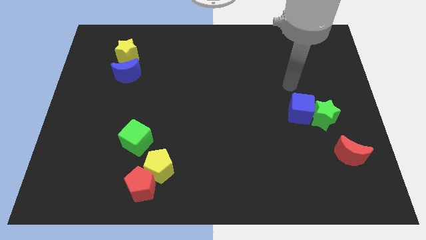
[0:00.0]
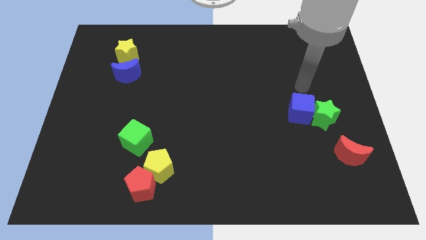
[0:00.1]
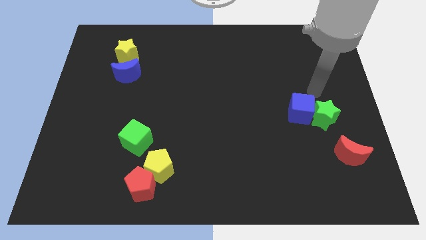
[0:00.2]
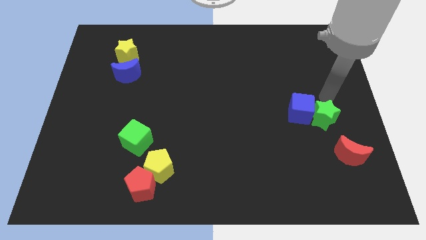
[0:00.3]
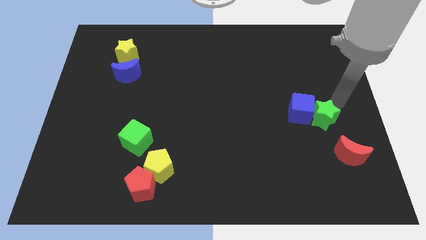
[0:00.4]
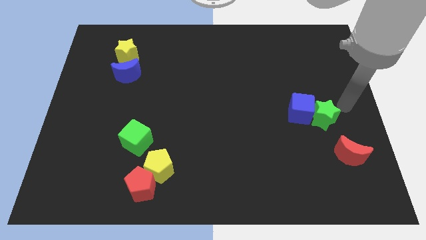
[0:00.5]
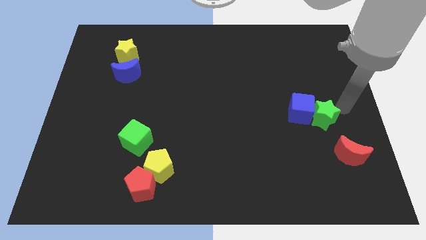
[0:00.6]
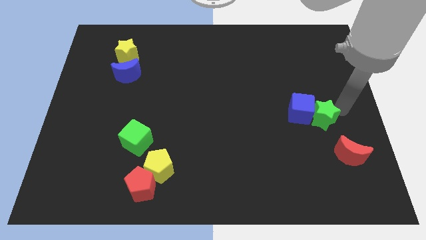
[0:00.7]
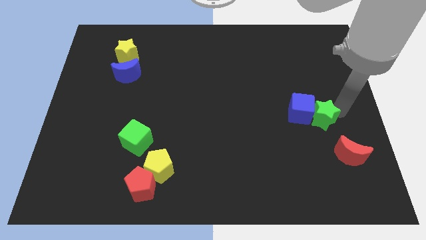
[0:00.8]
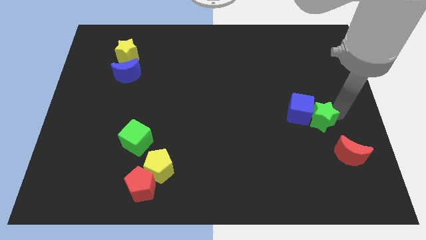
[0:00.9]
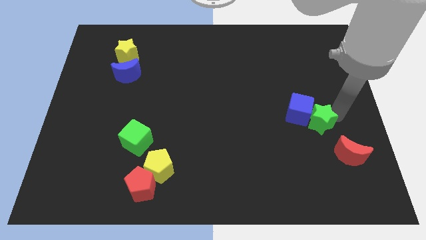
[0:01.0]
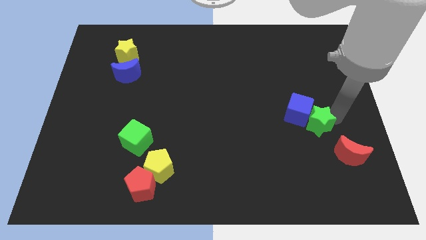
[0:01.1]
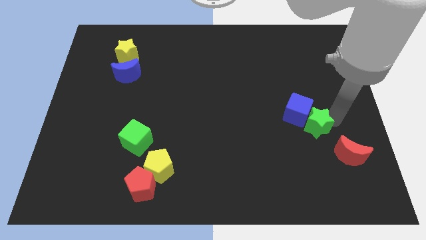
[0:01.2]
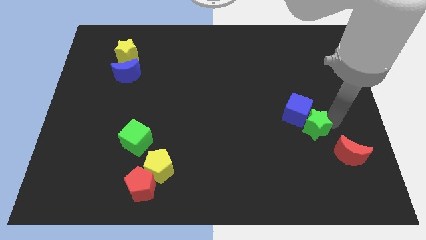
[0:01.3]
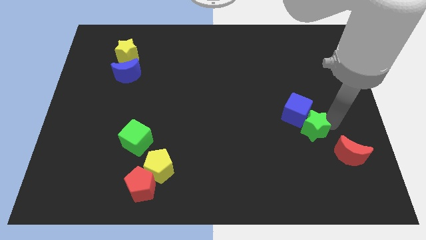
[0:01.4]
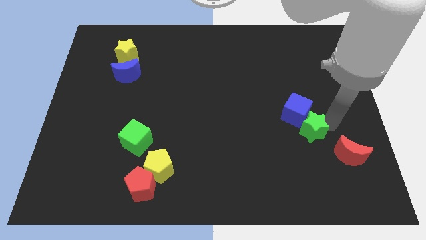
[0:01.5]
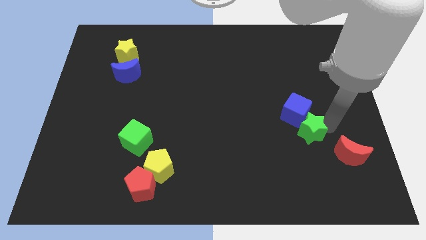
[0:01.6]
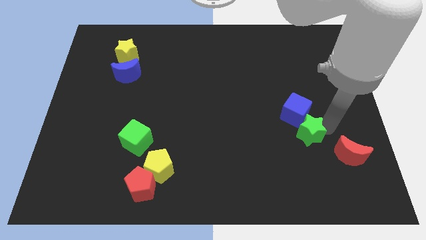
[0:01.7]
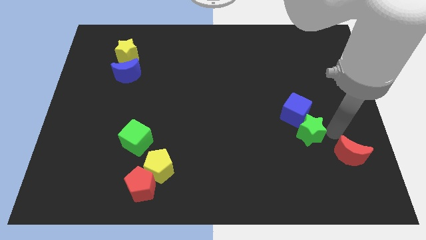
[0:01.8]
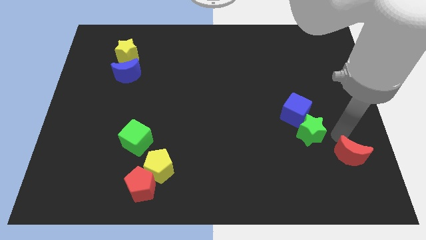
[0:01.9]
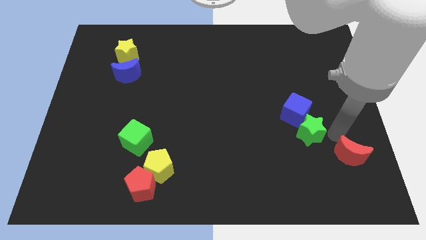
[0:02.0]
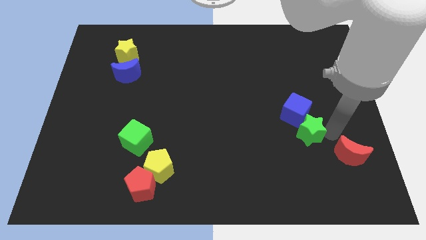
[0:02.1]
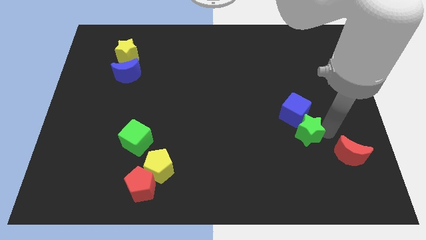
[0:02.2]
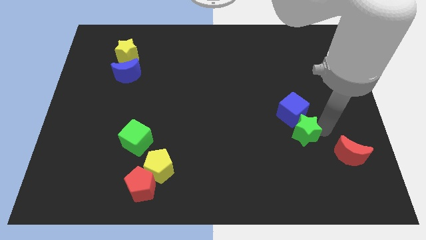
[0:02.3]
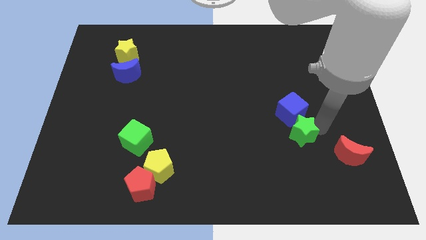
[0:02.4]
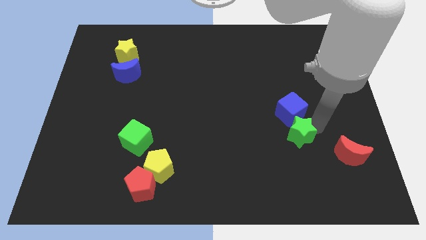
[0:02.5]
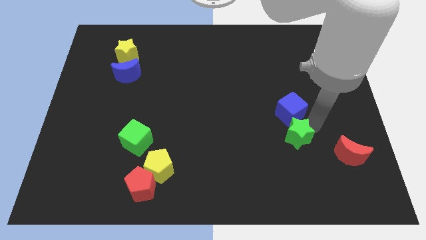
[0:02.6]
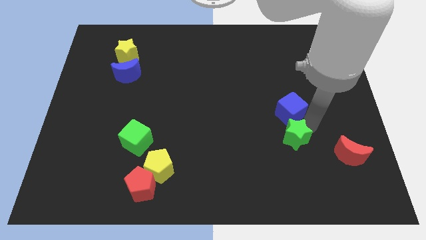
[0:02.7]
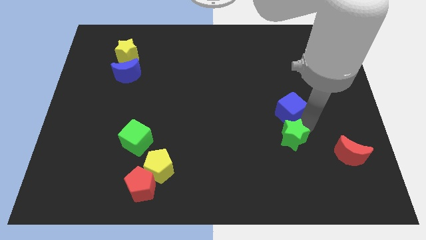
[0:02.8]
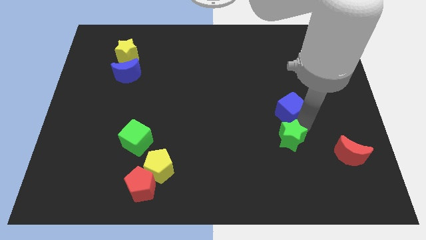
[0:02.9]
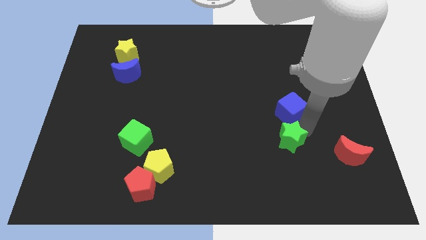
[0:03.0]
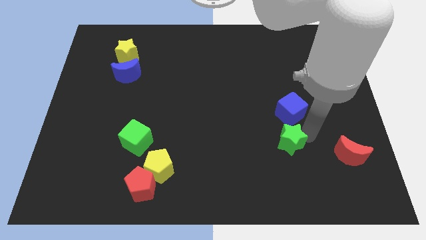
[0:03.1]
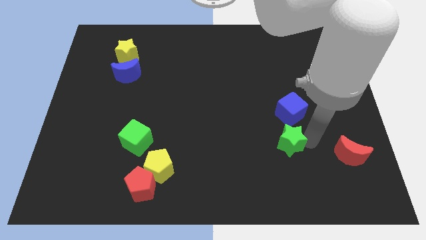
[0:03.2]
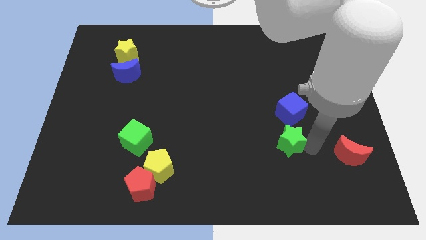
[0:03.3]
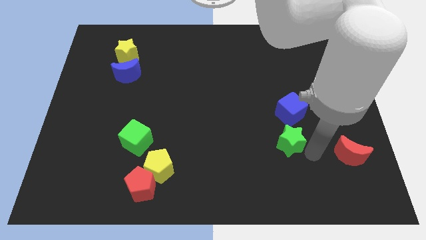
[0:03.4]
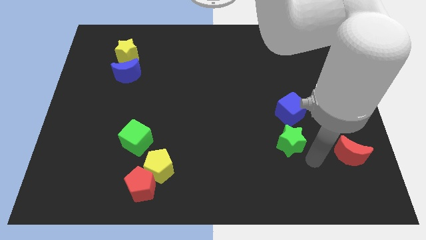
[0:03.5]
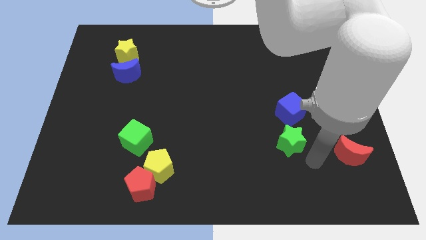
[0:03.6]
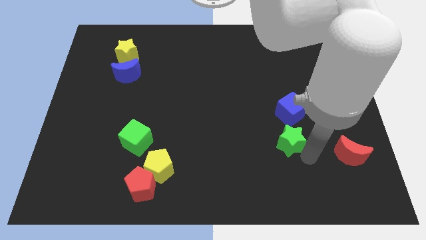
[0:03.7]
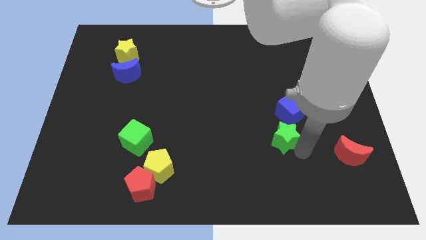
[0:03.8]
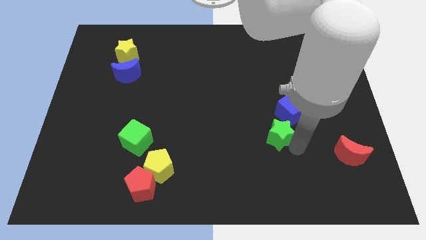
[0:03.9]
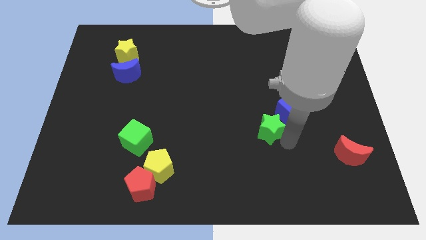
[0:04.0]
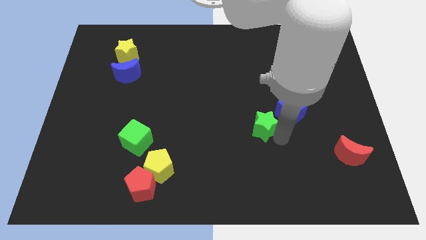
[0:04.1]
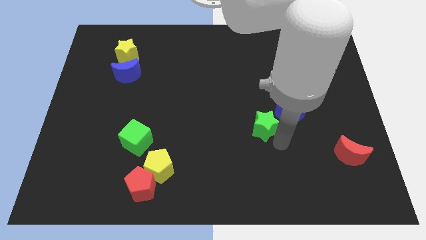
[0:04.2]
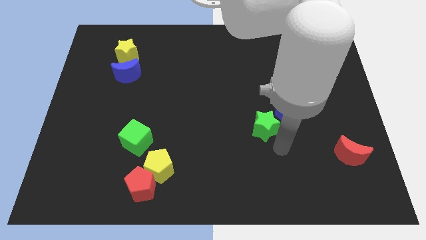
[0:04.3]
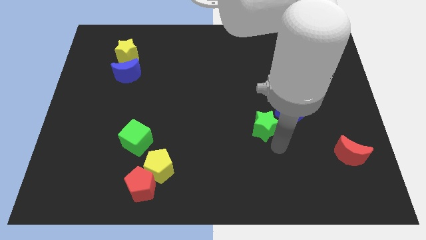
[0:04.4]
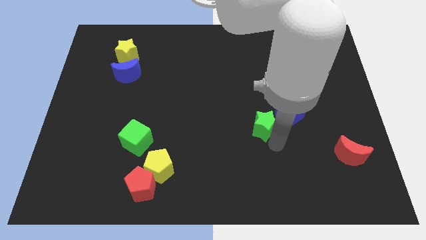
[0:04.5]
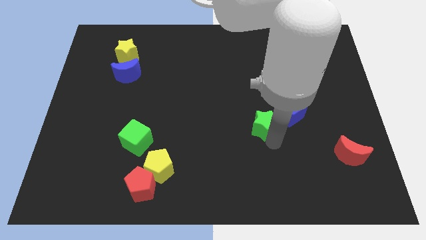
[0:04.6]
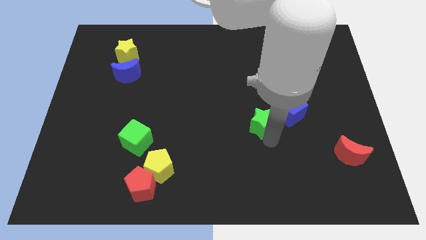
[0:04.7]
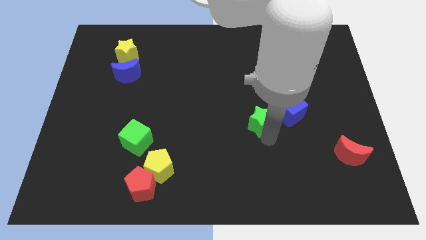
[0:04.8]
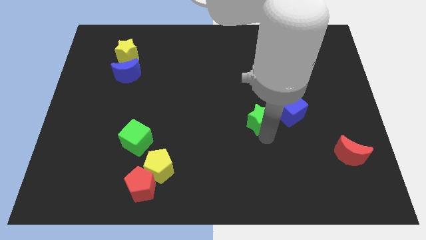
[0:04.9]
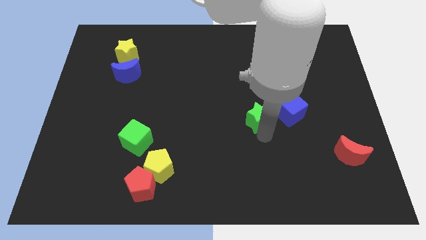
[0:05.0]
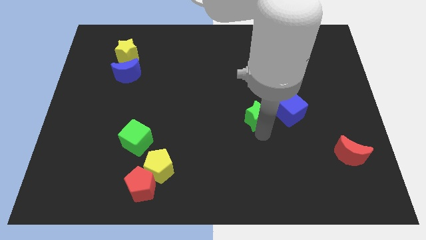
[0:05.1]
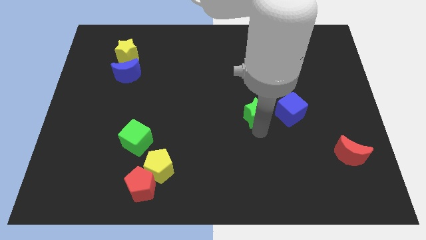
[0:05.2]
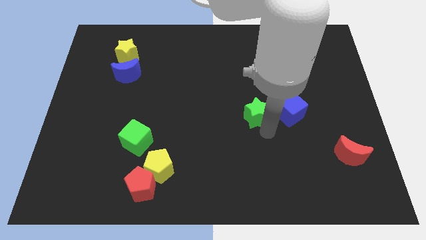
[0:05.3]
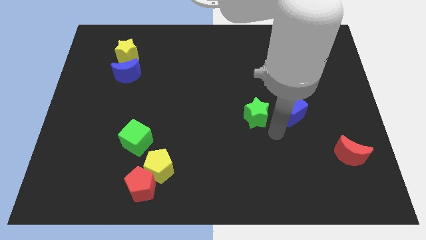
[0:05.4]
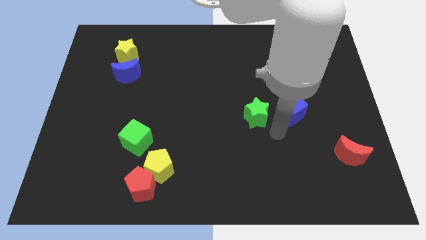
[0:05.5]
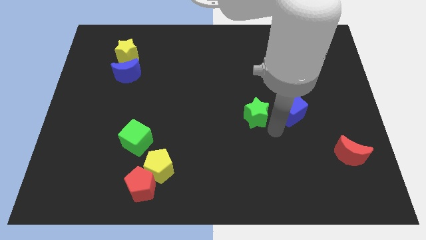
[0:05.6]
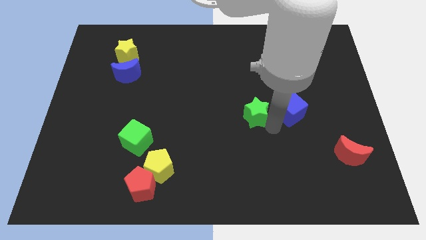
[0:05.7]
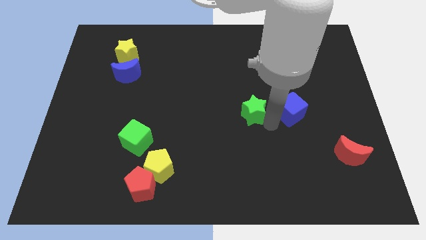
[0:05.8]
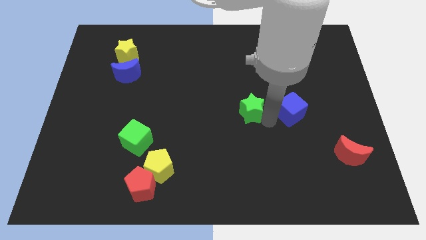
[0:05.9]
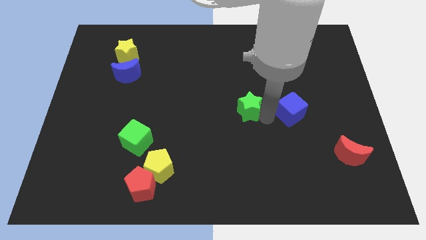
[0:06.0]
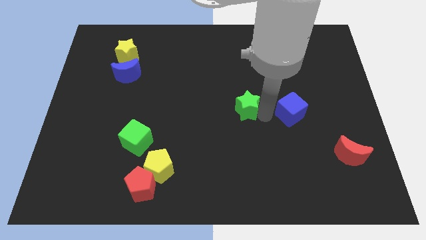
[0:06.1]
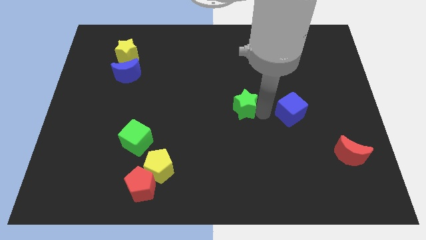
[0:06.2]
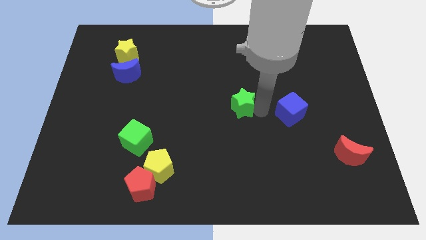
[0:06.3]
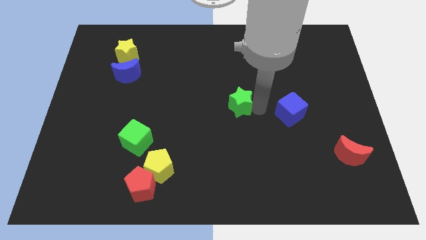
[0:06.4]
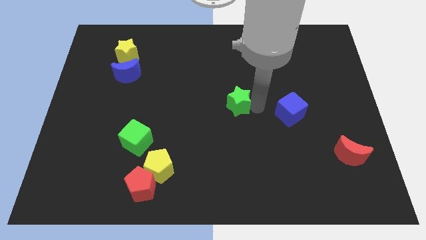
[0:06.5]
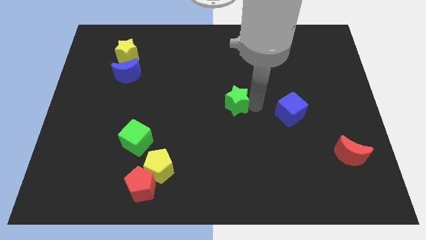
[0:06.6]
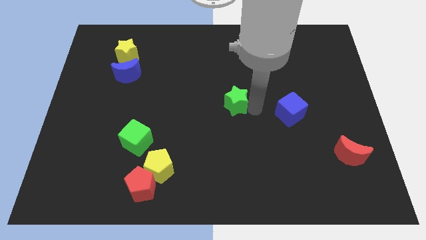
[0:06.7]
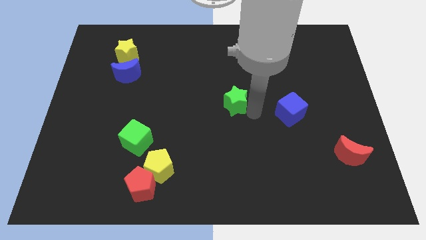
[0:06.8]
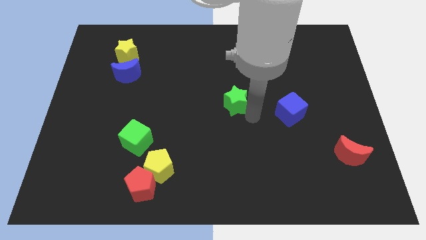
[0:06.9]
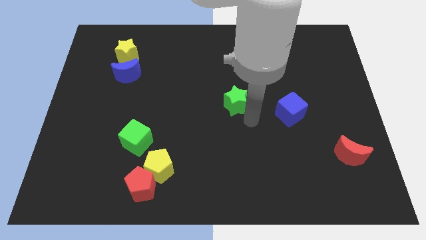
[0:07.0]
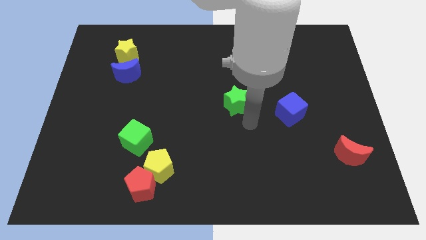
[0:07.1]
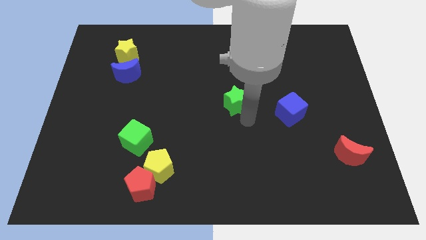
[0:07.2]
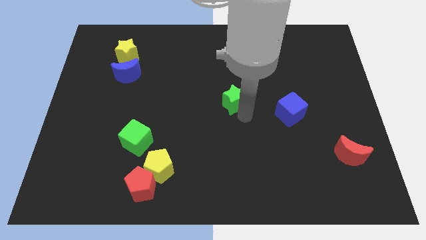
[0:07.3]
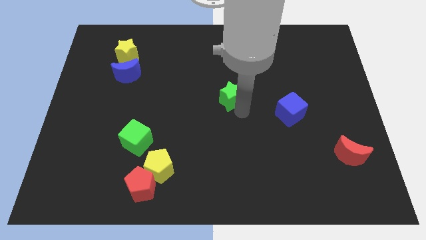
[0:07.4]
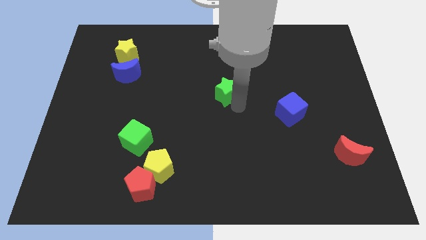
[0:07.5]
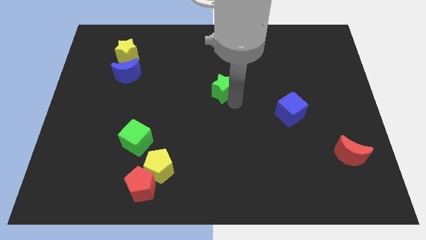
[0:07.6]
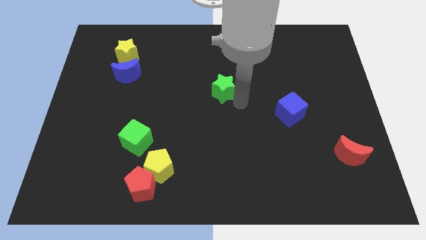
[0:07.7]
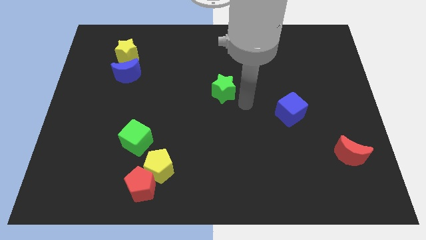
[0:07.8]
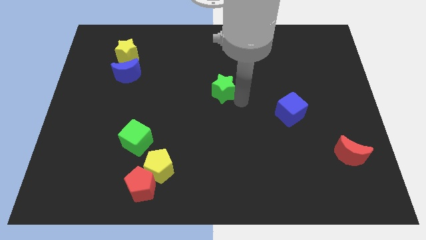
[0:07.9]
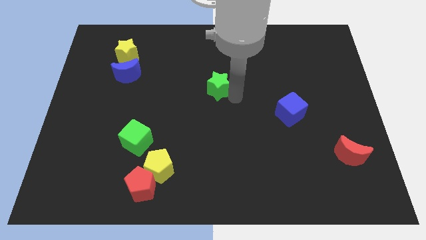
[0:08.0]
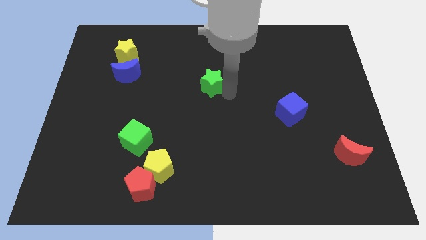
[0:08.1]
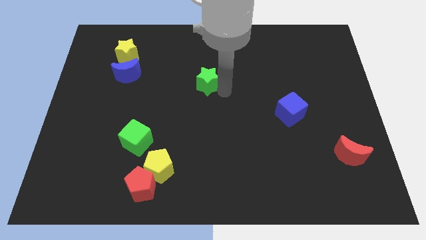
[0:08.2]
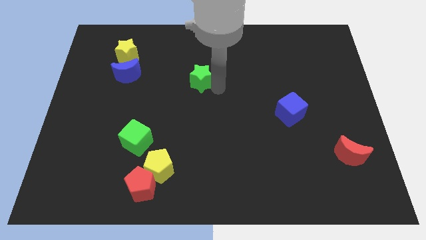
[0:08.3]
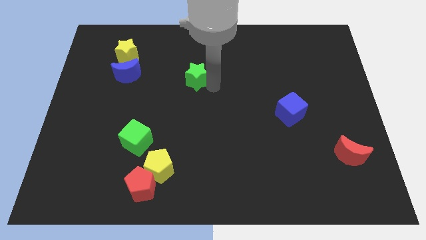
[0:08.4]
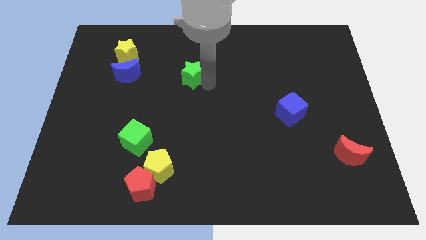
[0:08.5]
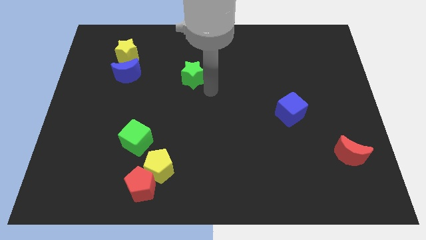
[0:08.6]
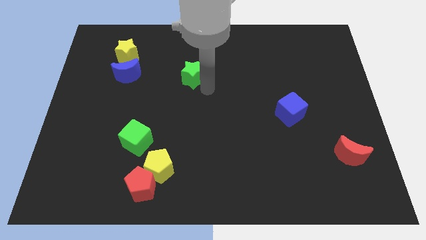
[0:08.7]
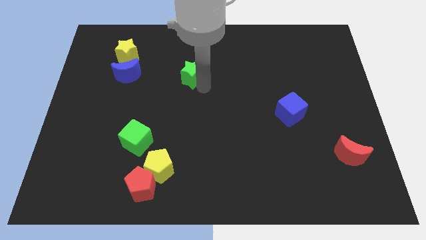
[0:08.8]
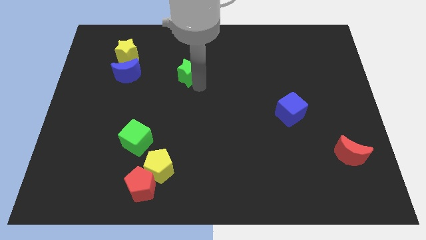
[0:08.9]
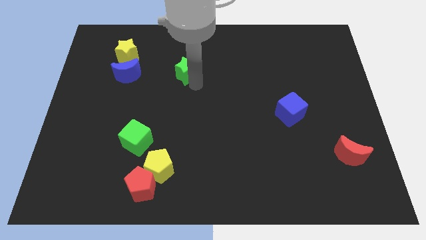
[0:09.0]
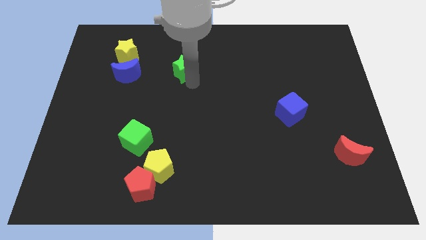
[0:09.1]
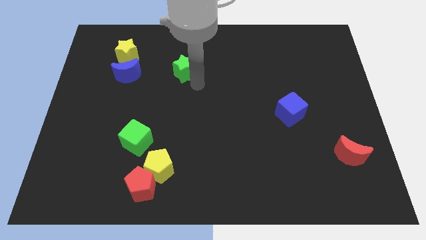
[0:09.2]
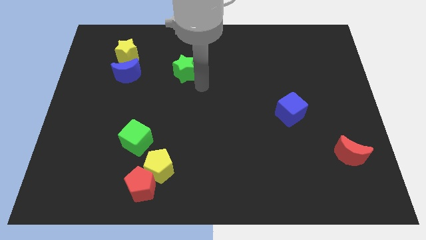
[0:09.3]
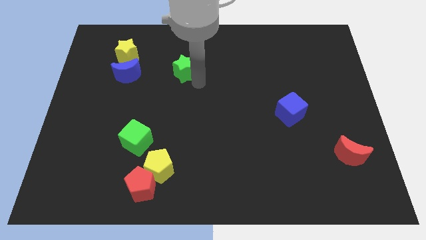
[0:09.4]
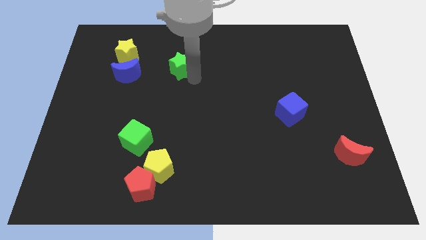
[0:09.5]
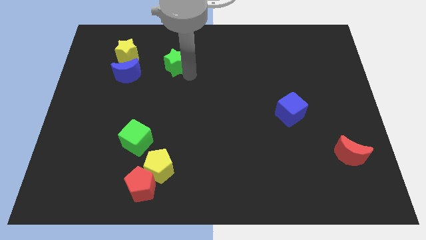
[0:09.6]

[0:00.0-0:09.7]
move the green star right of the yellow star
